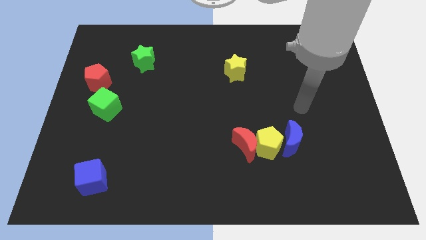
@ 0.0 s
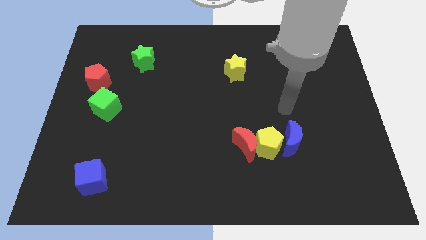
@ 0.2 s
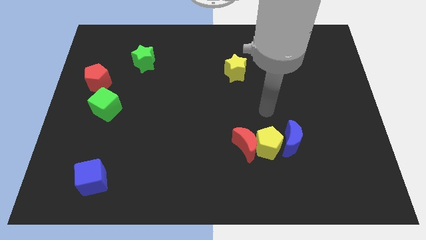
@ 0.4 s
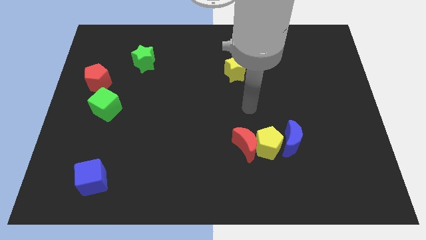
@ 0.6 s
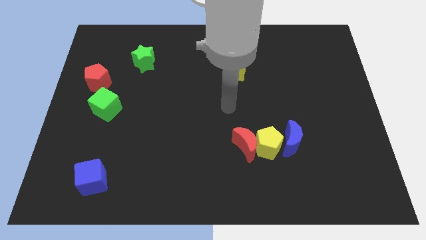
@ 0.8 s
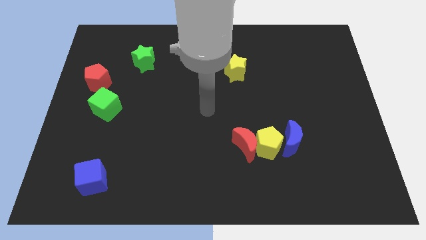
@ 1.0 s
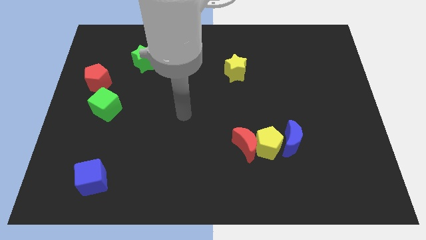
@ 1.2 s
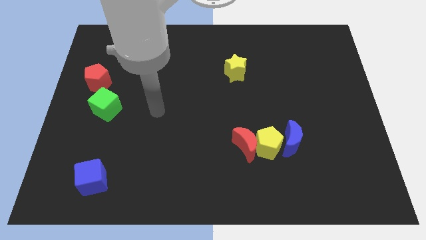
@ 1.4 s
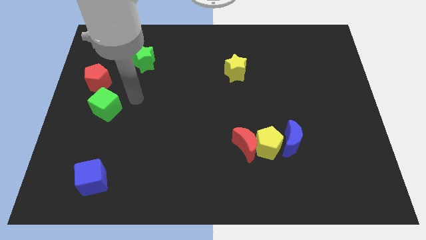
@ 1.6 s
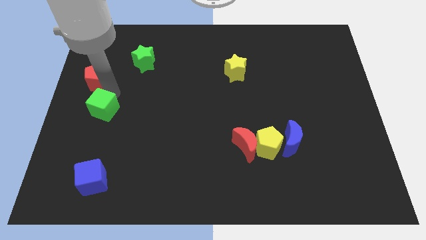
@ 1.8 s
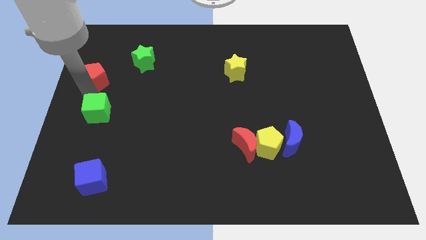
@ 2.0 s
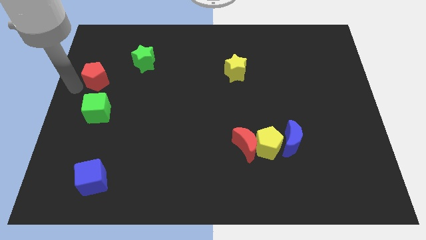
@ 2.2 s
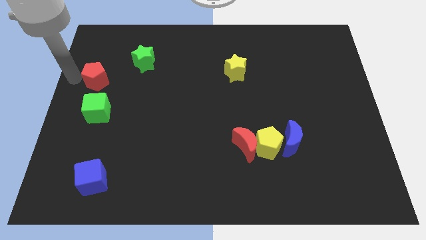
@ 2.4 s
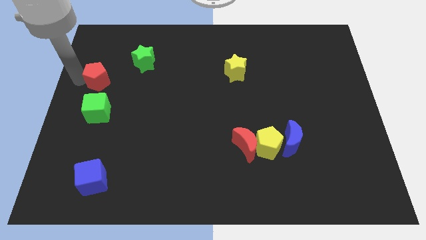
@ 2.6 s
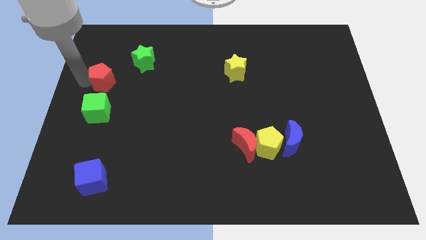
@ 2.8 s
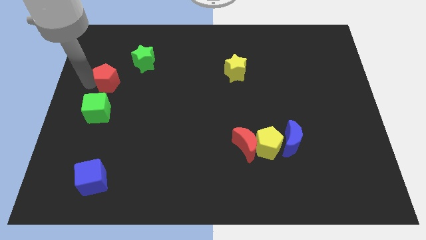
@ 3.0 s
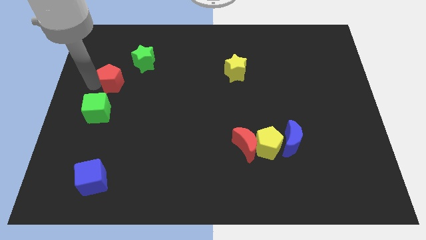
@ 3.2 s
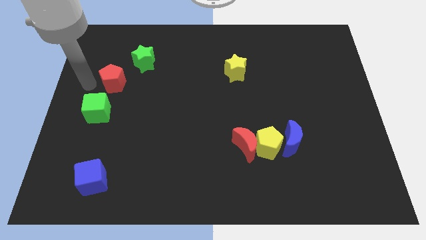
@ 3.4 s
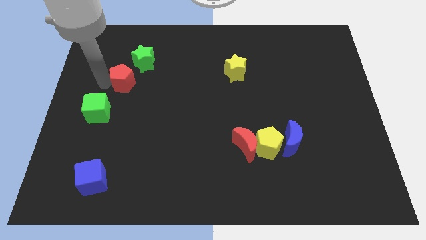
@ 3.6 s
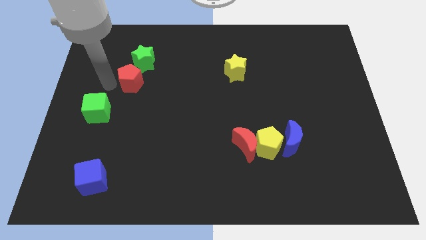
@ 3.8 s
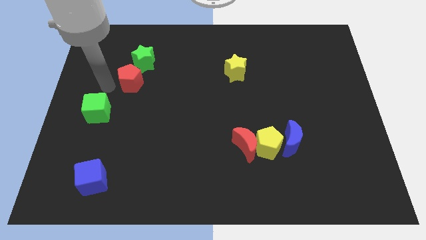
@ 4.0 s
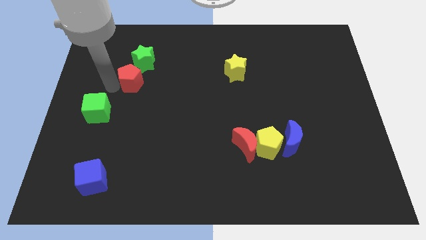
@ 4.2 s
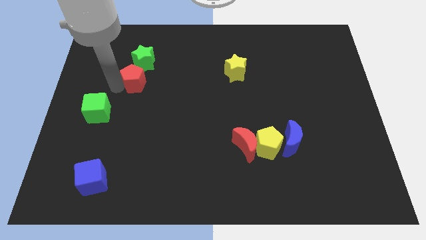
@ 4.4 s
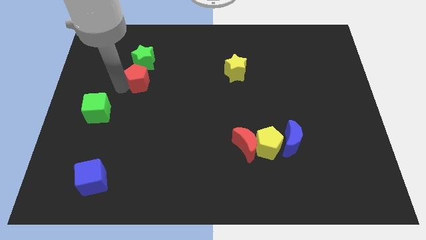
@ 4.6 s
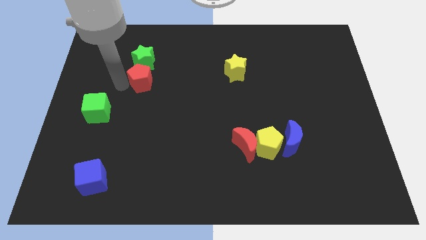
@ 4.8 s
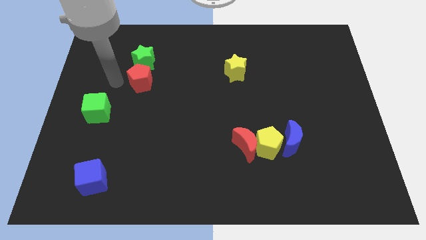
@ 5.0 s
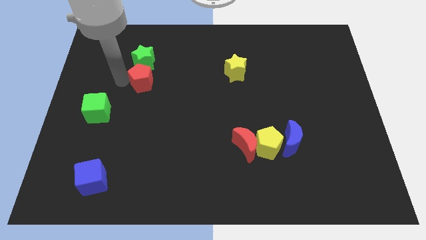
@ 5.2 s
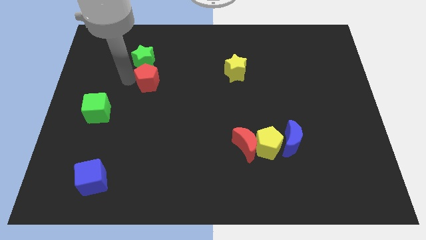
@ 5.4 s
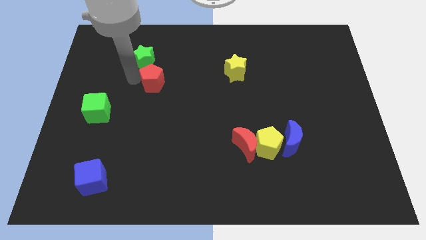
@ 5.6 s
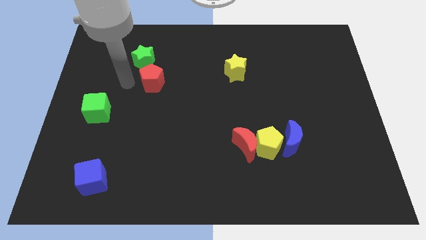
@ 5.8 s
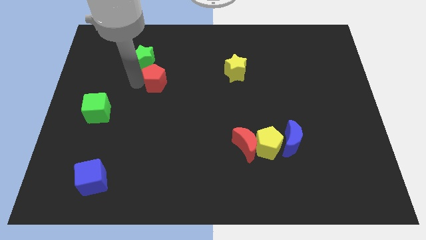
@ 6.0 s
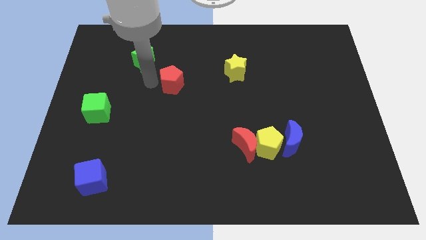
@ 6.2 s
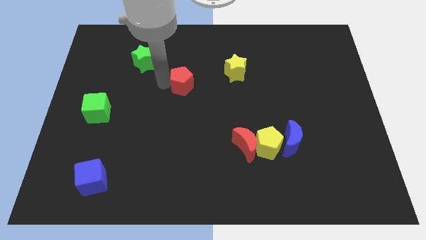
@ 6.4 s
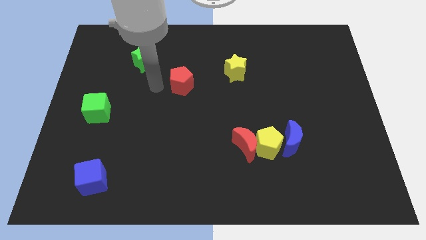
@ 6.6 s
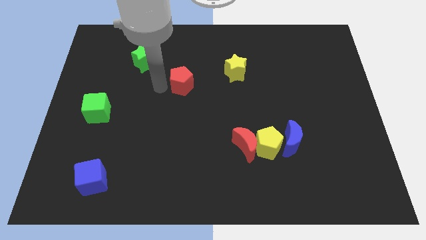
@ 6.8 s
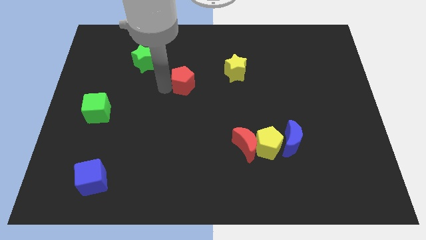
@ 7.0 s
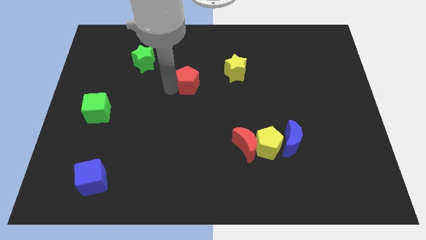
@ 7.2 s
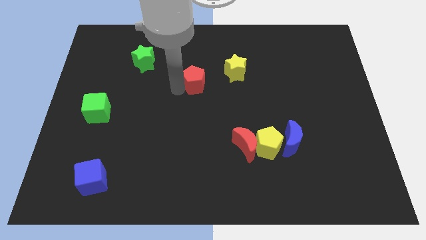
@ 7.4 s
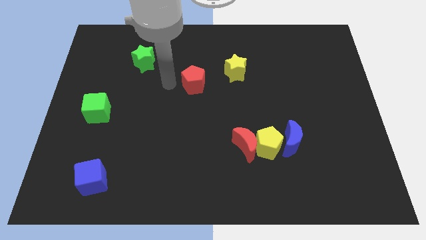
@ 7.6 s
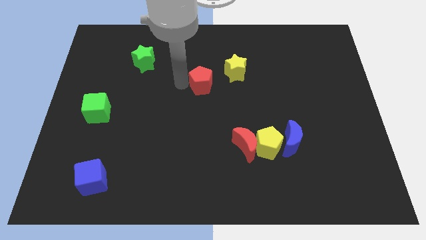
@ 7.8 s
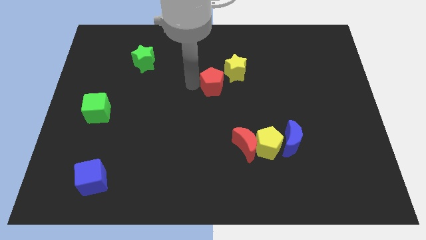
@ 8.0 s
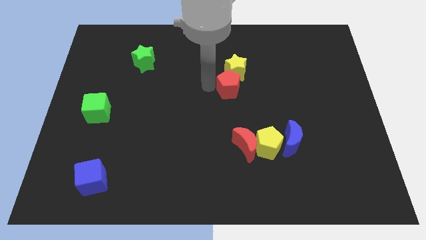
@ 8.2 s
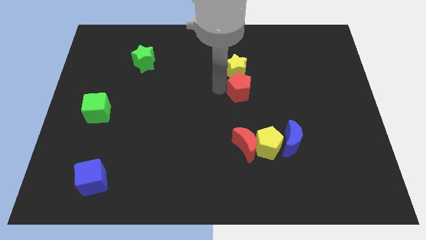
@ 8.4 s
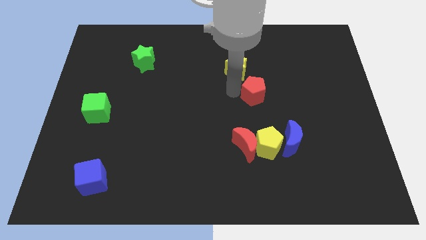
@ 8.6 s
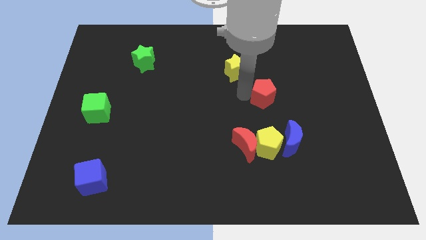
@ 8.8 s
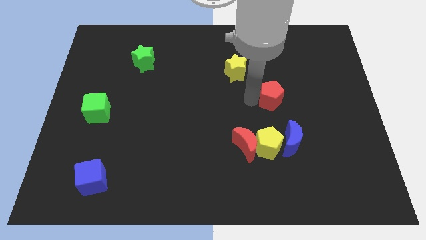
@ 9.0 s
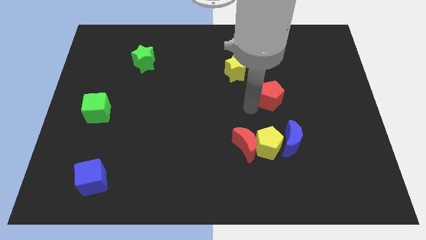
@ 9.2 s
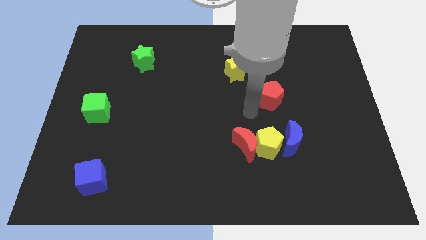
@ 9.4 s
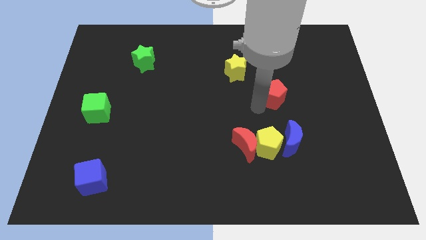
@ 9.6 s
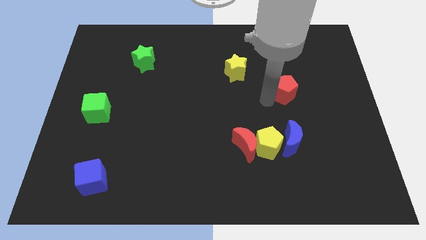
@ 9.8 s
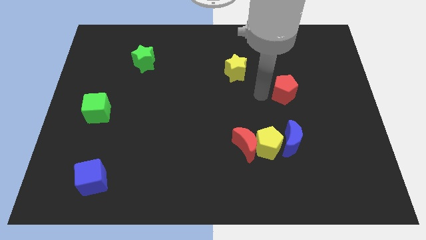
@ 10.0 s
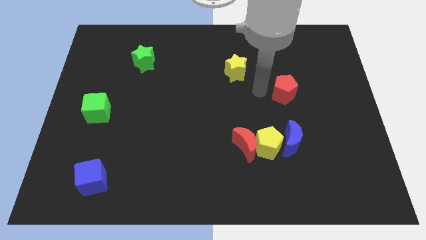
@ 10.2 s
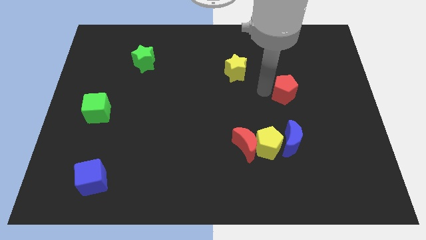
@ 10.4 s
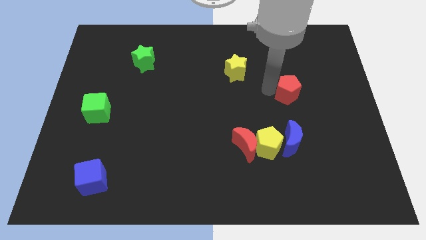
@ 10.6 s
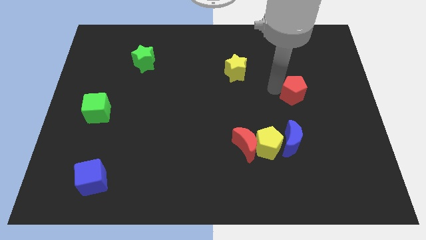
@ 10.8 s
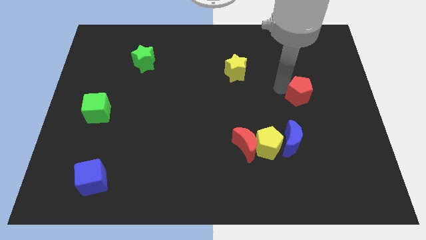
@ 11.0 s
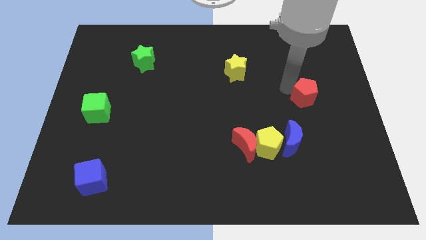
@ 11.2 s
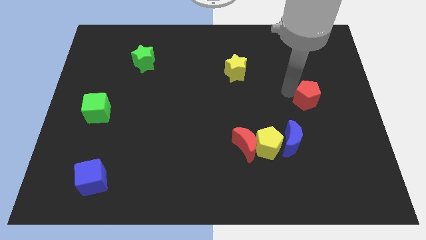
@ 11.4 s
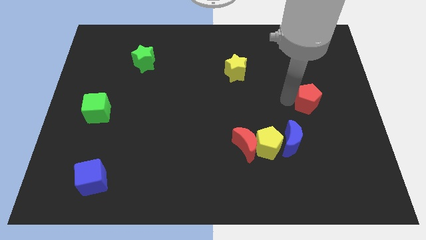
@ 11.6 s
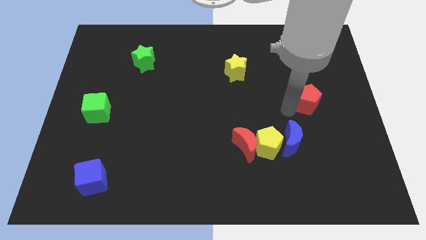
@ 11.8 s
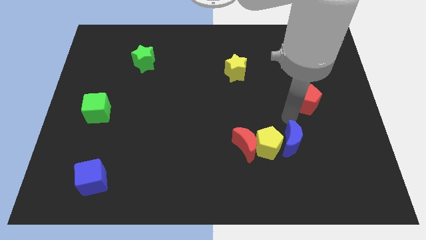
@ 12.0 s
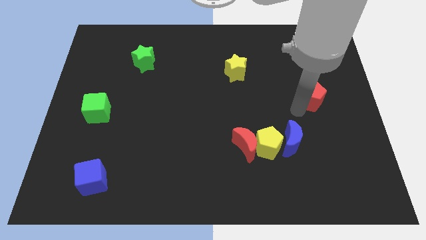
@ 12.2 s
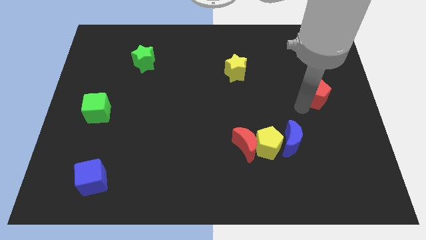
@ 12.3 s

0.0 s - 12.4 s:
move the red pentagon to the right side

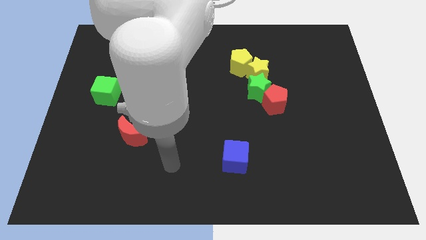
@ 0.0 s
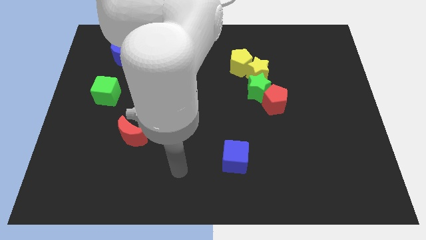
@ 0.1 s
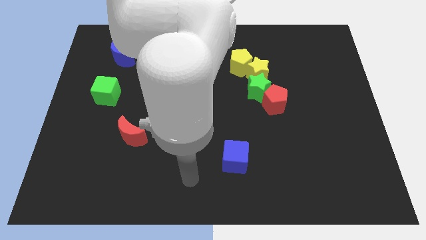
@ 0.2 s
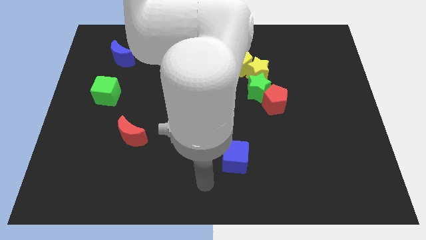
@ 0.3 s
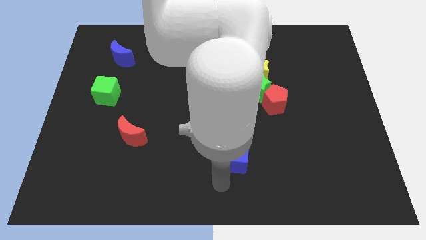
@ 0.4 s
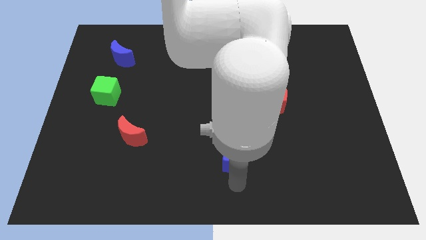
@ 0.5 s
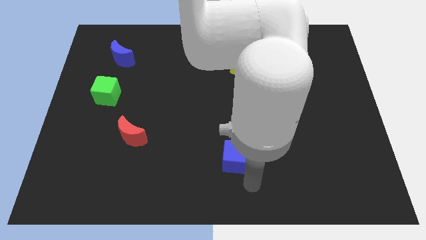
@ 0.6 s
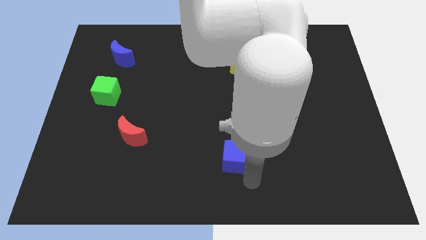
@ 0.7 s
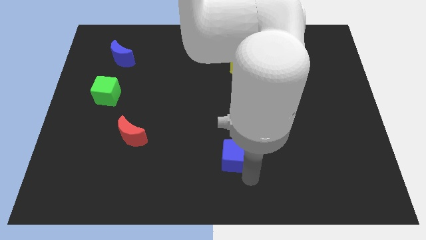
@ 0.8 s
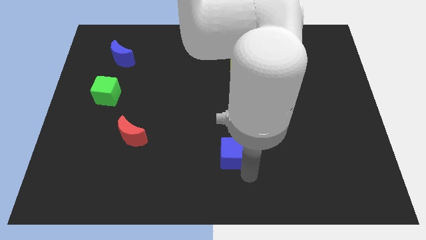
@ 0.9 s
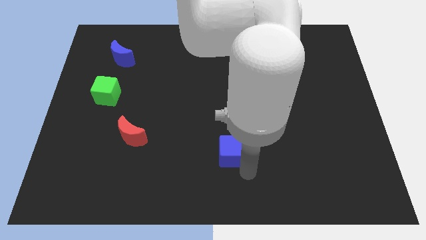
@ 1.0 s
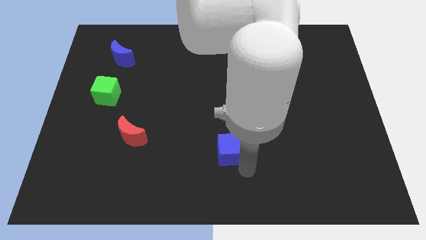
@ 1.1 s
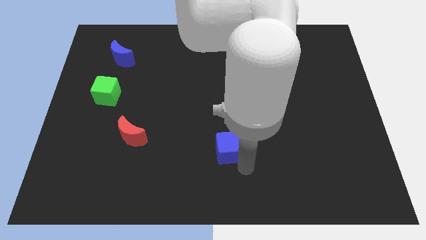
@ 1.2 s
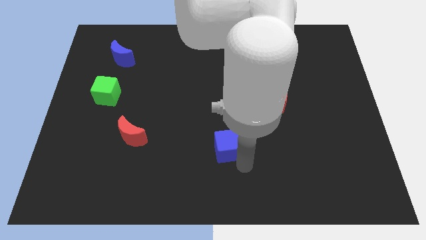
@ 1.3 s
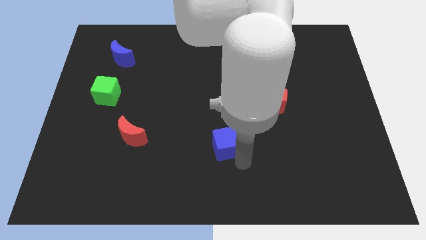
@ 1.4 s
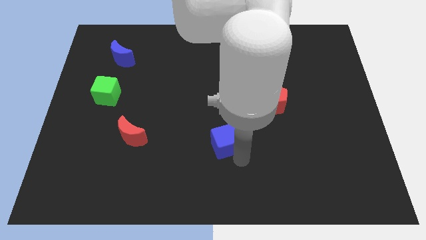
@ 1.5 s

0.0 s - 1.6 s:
move the blue cube to the center
